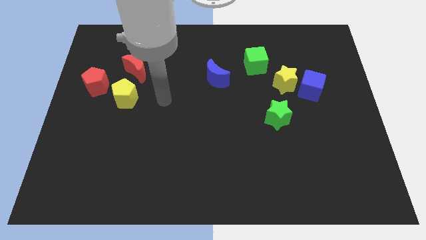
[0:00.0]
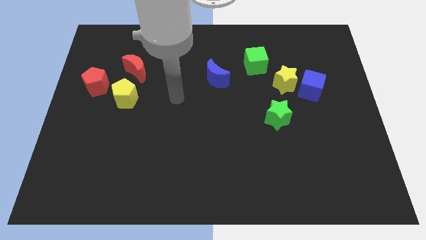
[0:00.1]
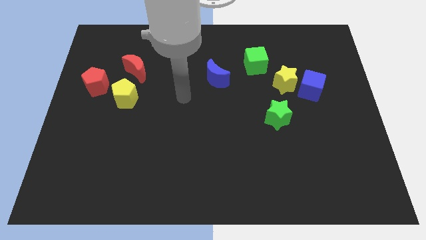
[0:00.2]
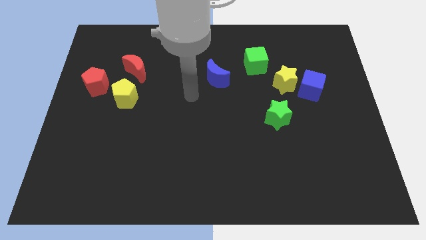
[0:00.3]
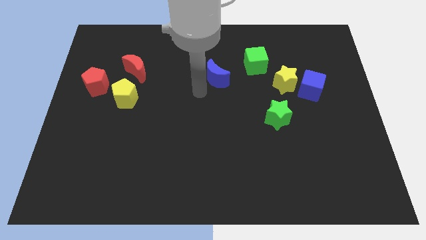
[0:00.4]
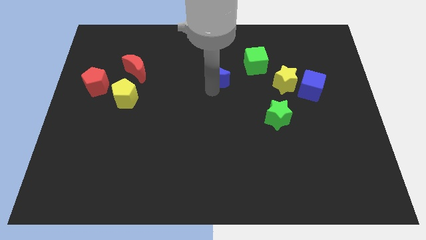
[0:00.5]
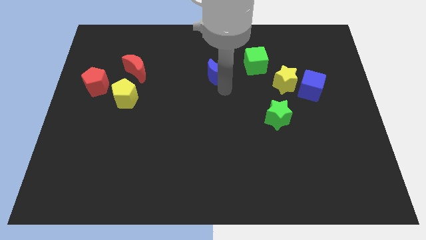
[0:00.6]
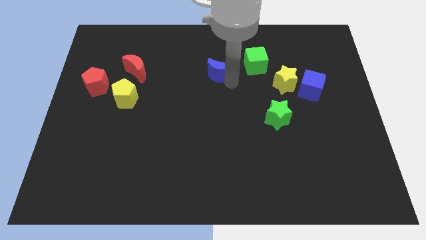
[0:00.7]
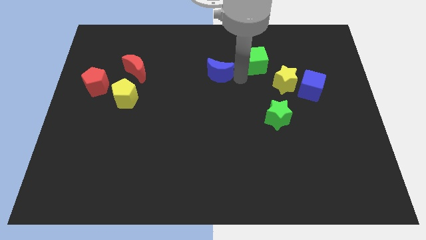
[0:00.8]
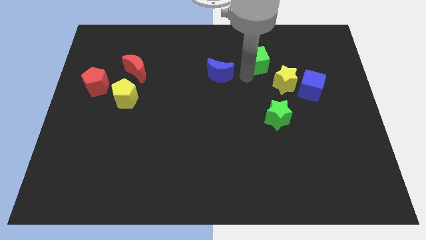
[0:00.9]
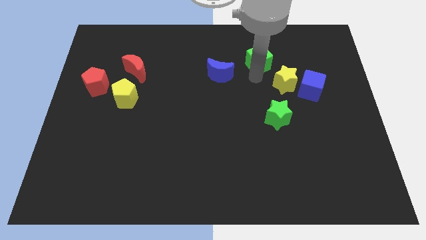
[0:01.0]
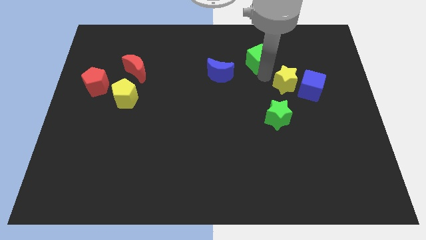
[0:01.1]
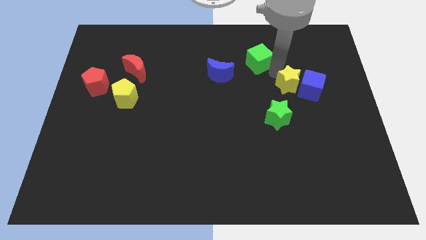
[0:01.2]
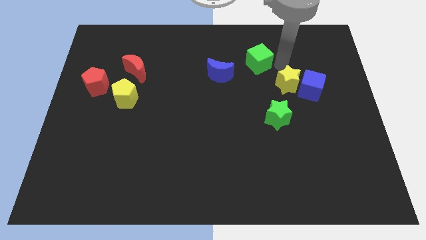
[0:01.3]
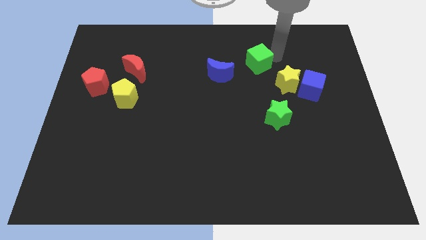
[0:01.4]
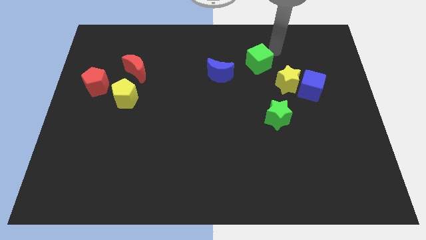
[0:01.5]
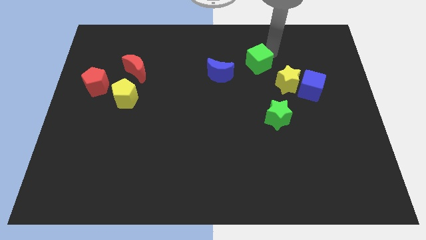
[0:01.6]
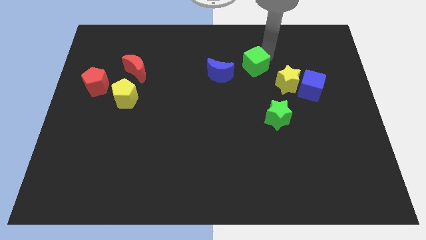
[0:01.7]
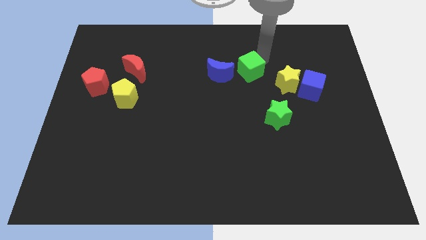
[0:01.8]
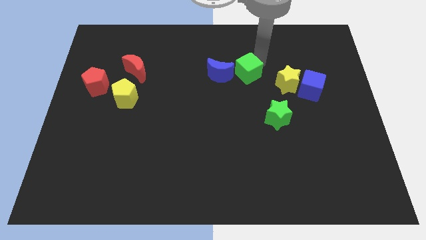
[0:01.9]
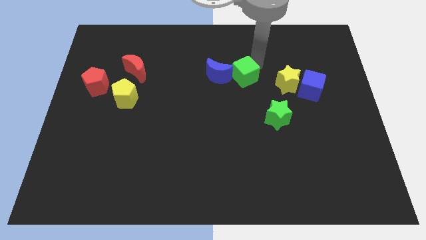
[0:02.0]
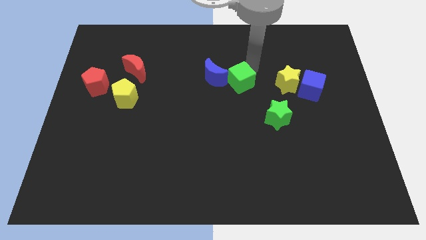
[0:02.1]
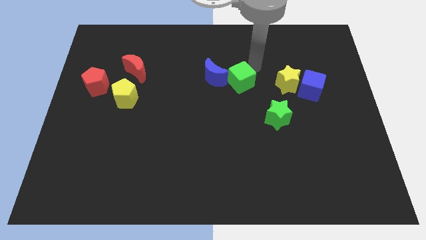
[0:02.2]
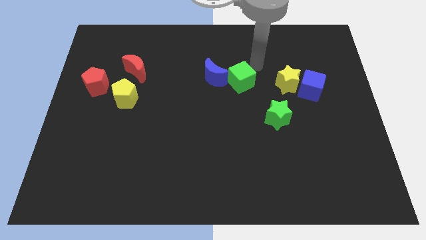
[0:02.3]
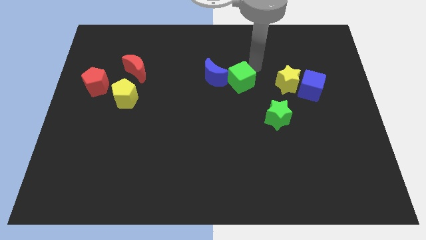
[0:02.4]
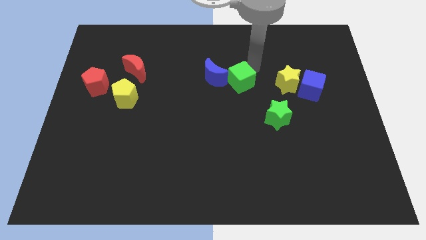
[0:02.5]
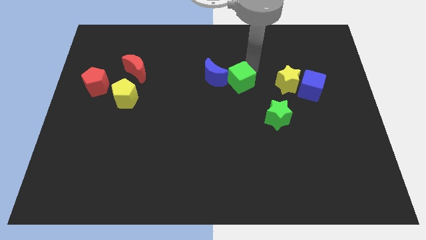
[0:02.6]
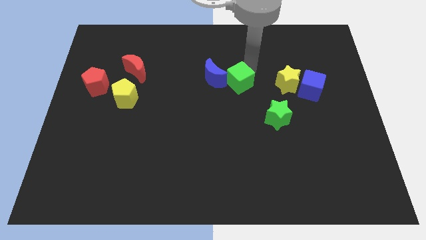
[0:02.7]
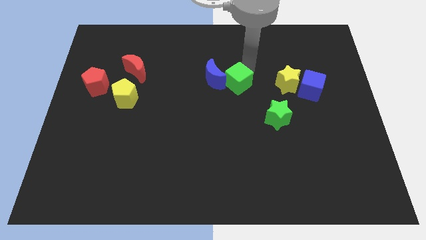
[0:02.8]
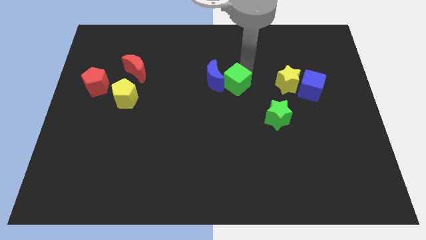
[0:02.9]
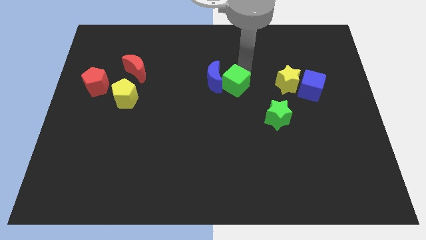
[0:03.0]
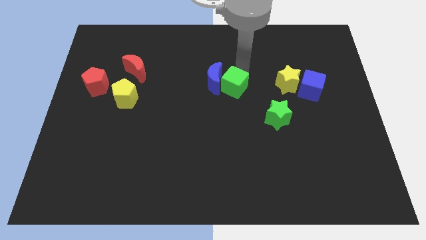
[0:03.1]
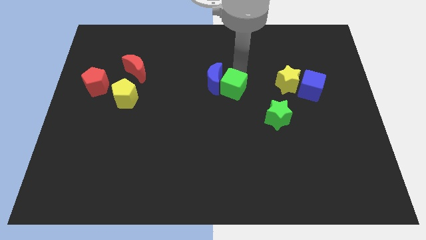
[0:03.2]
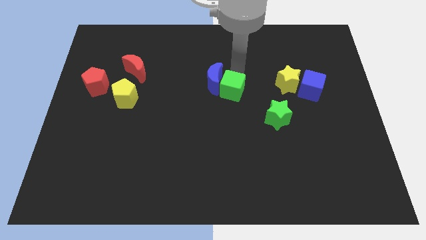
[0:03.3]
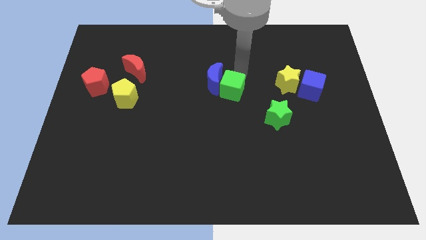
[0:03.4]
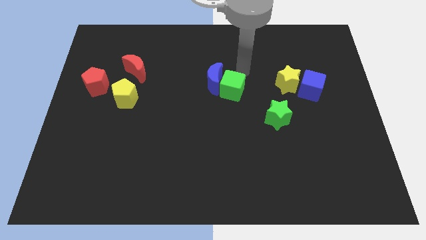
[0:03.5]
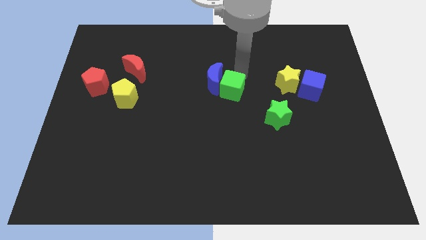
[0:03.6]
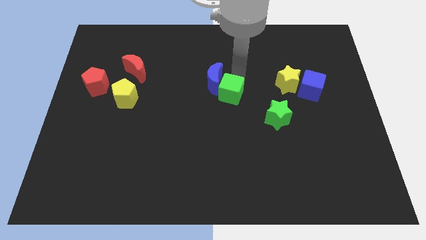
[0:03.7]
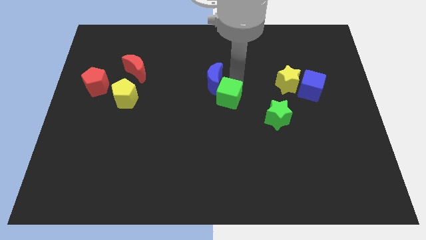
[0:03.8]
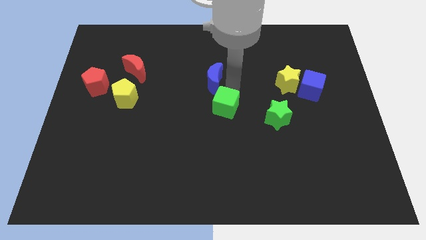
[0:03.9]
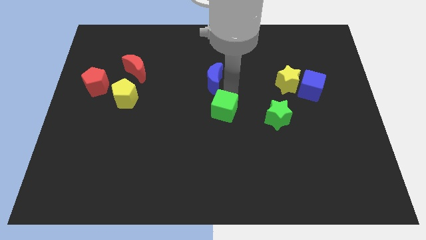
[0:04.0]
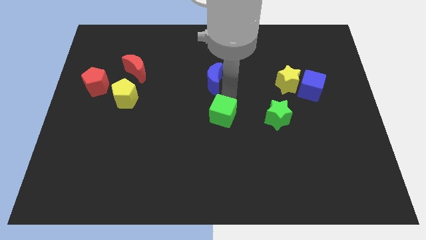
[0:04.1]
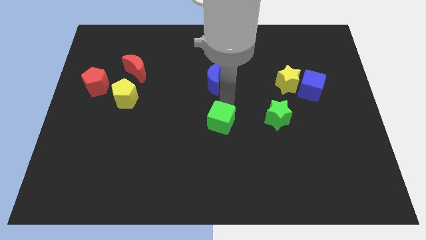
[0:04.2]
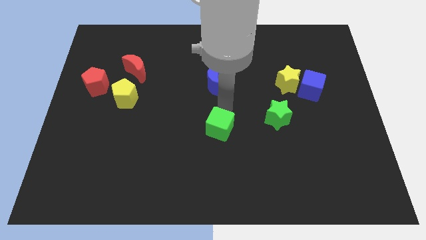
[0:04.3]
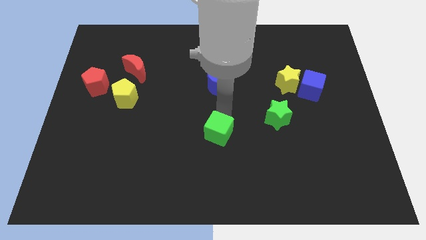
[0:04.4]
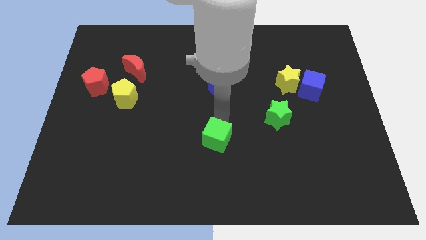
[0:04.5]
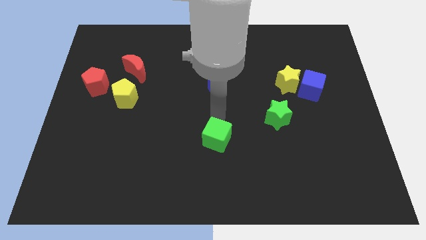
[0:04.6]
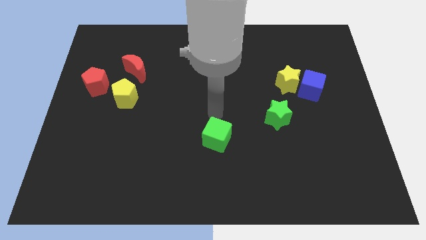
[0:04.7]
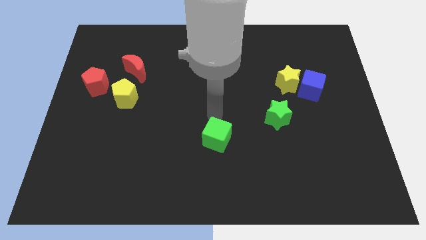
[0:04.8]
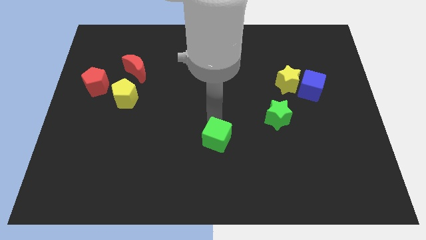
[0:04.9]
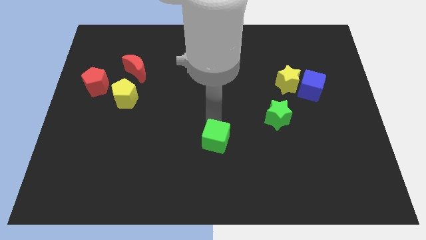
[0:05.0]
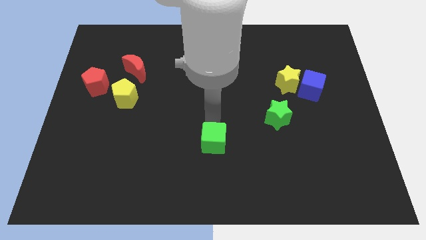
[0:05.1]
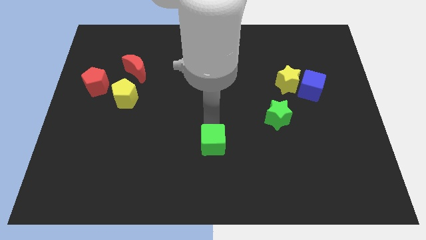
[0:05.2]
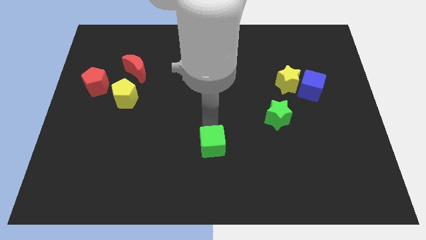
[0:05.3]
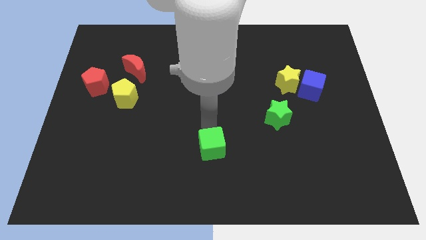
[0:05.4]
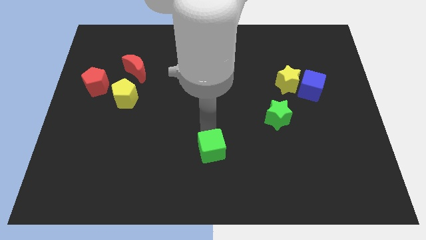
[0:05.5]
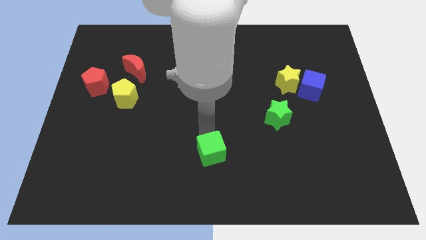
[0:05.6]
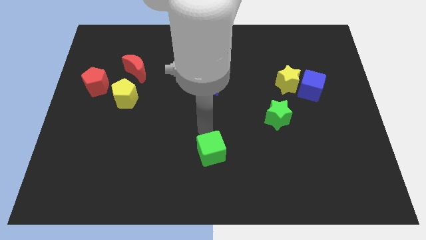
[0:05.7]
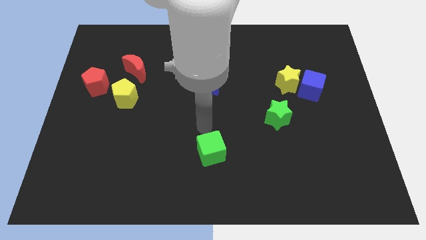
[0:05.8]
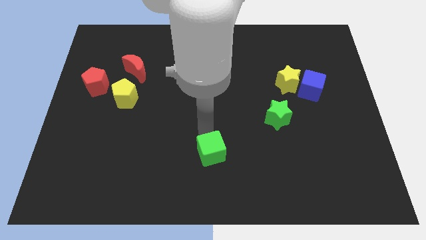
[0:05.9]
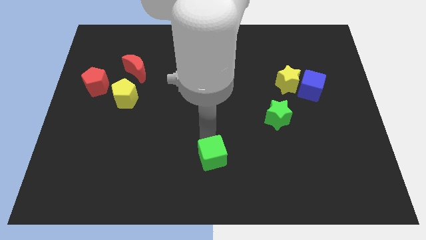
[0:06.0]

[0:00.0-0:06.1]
slide the green cube to the bottom side

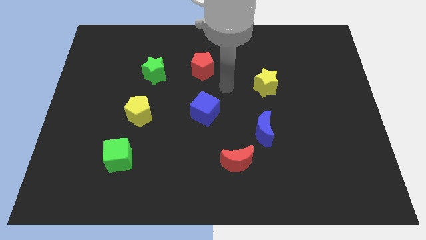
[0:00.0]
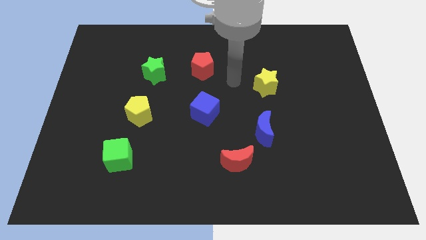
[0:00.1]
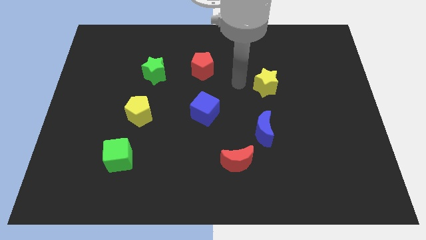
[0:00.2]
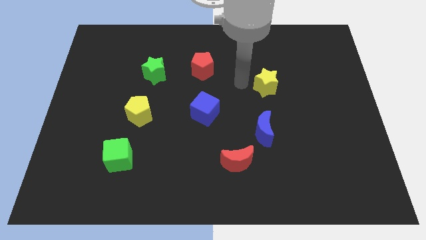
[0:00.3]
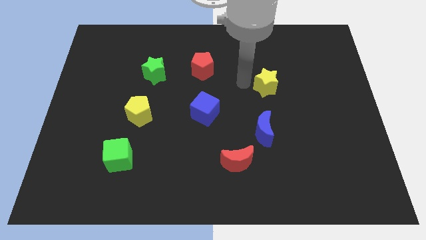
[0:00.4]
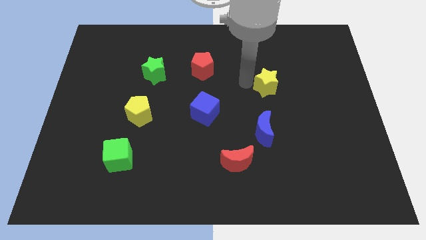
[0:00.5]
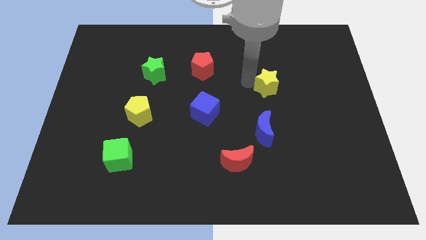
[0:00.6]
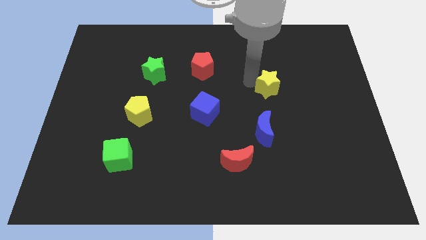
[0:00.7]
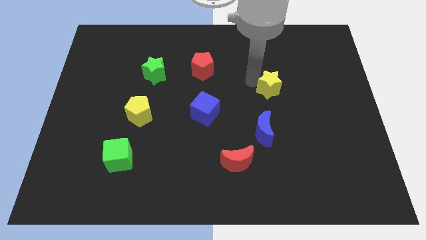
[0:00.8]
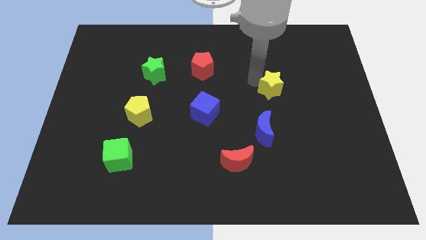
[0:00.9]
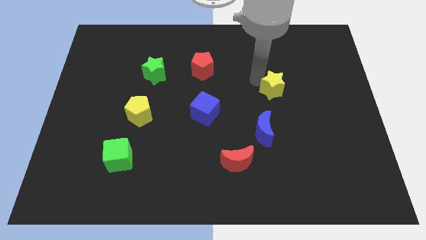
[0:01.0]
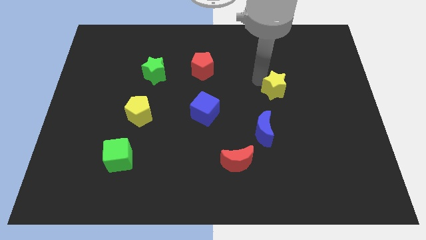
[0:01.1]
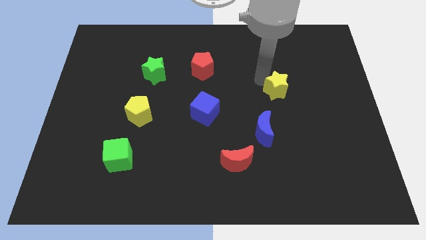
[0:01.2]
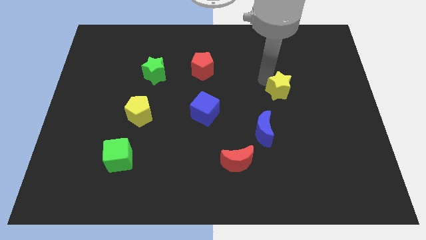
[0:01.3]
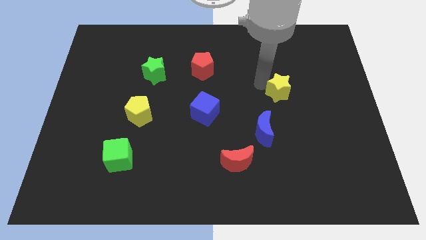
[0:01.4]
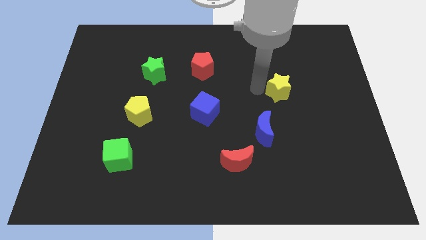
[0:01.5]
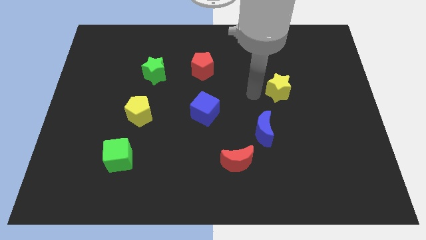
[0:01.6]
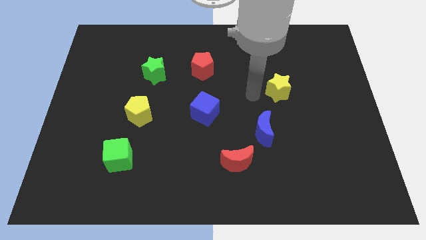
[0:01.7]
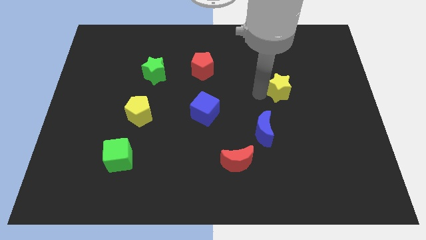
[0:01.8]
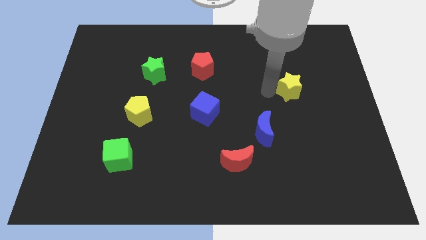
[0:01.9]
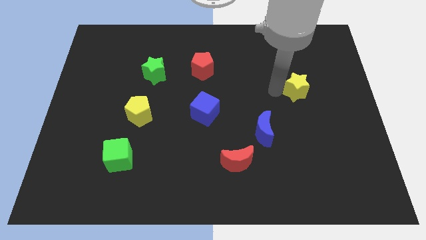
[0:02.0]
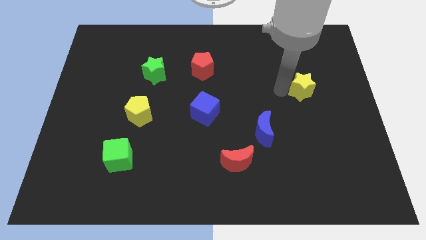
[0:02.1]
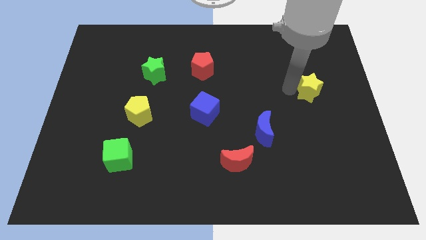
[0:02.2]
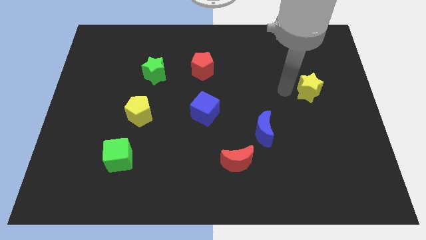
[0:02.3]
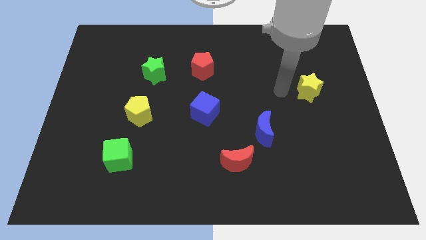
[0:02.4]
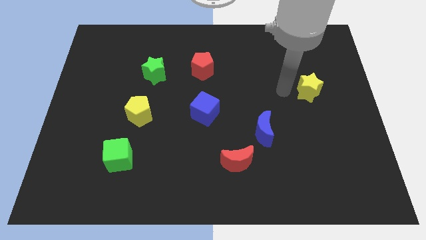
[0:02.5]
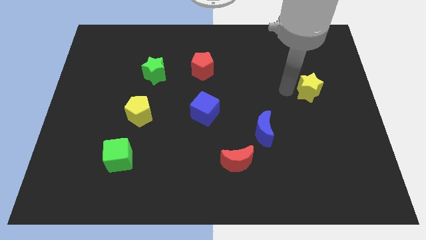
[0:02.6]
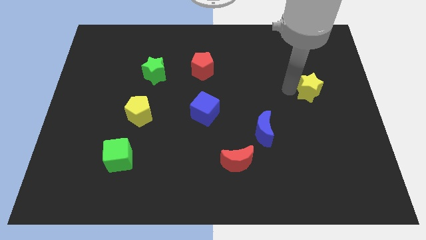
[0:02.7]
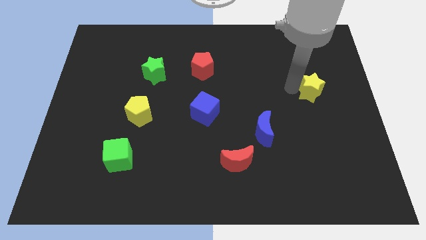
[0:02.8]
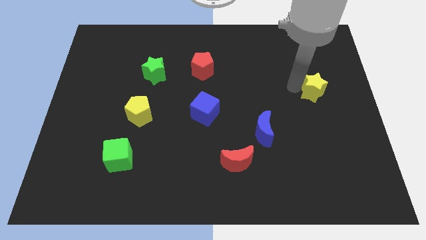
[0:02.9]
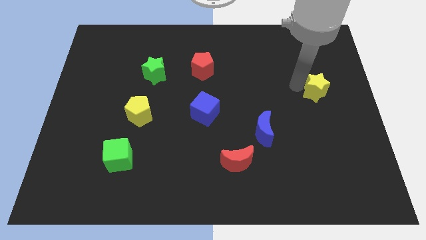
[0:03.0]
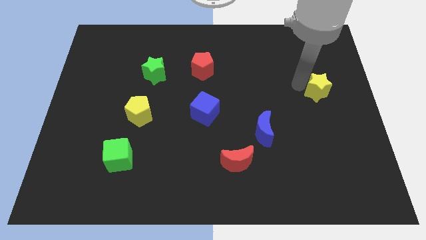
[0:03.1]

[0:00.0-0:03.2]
move the yellow star to the right side of the board
